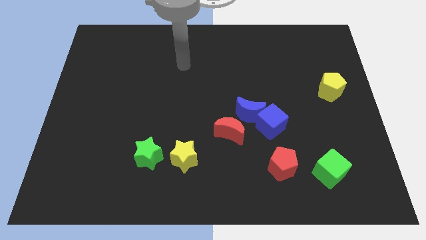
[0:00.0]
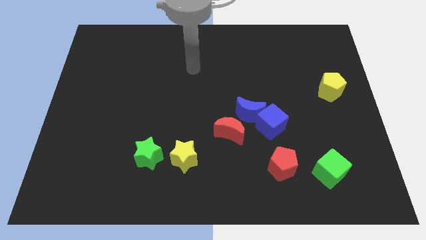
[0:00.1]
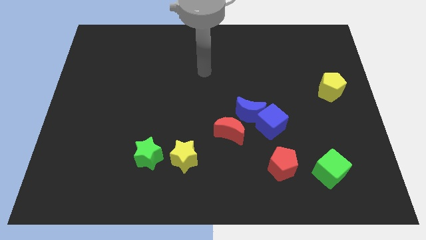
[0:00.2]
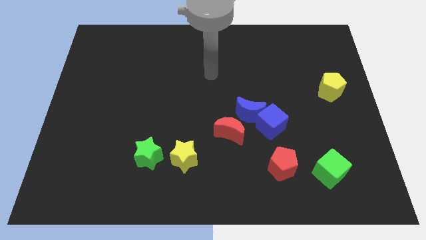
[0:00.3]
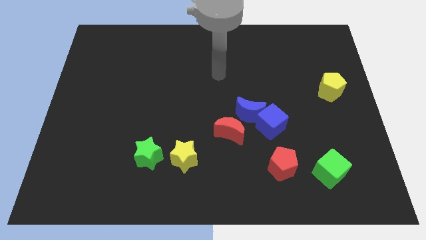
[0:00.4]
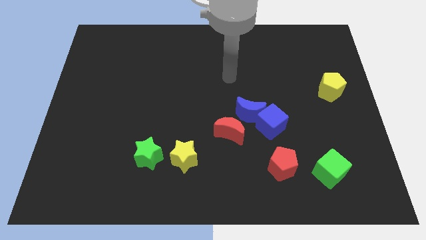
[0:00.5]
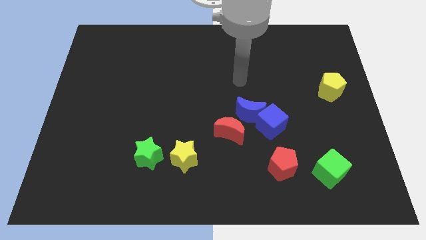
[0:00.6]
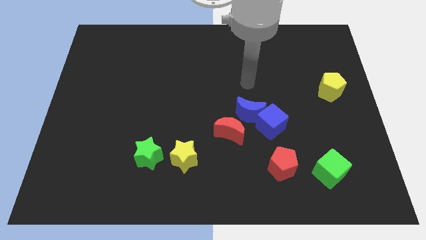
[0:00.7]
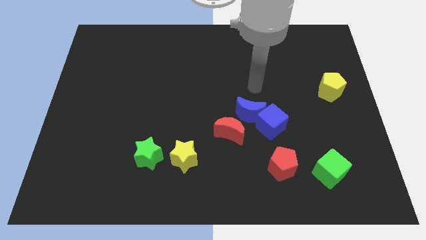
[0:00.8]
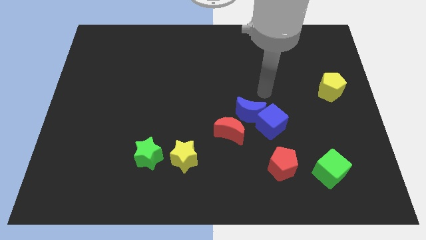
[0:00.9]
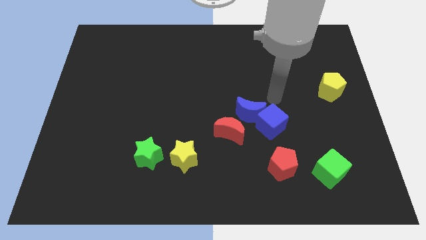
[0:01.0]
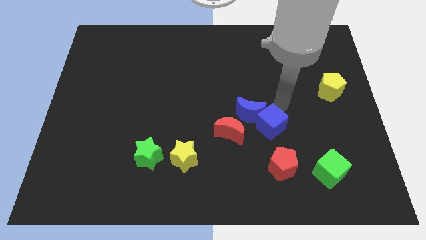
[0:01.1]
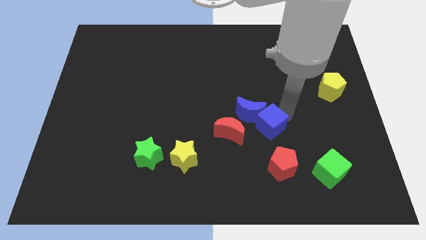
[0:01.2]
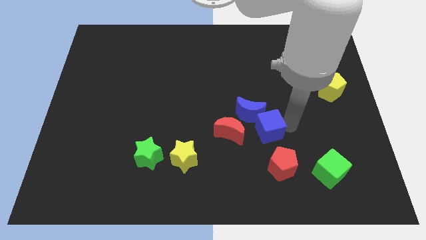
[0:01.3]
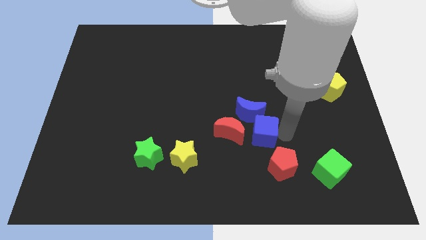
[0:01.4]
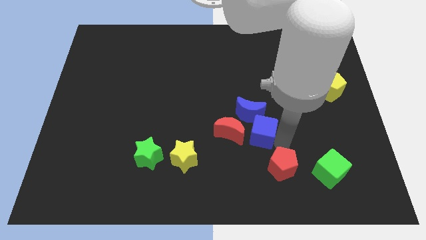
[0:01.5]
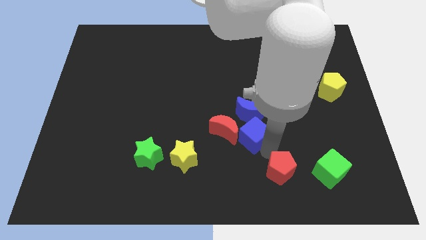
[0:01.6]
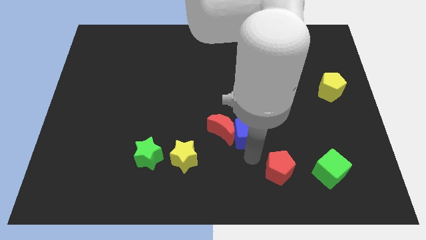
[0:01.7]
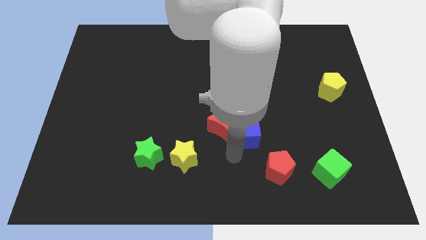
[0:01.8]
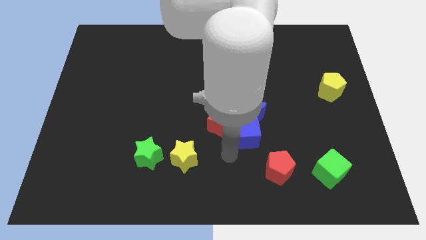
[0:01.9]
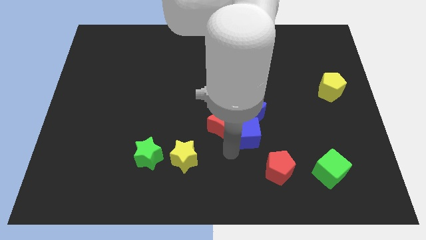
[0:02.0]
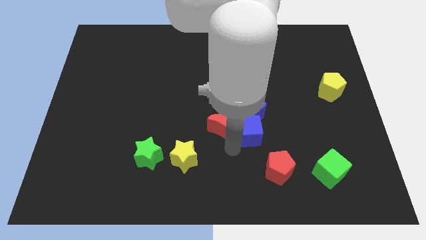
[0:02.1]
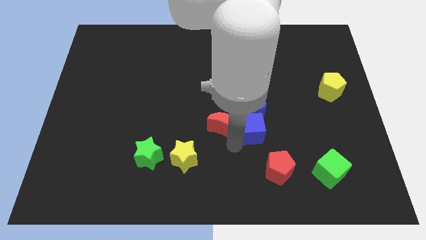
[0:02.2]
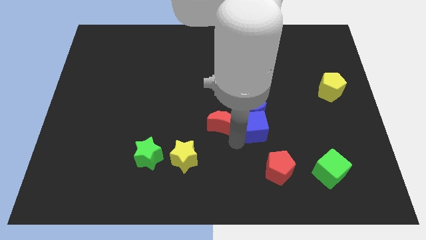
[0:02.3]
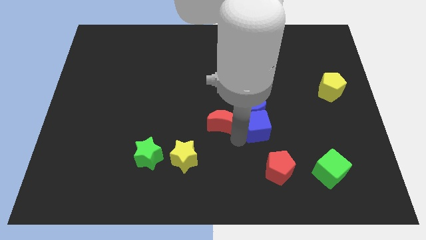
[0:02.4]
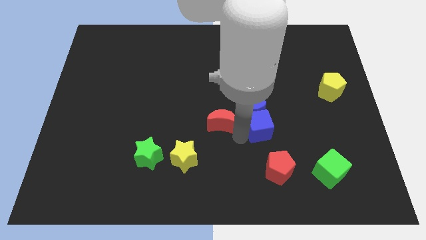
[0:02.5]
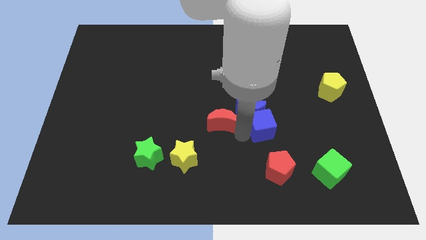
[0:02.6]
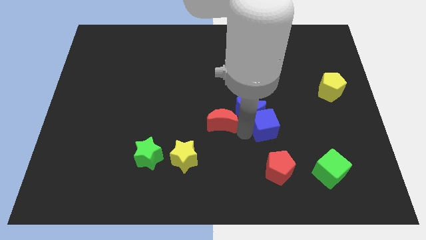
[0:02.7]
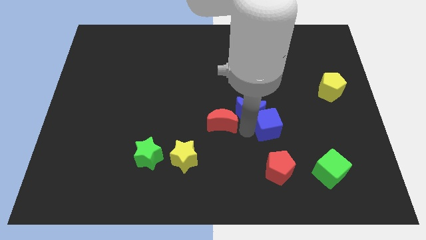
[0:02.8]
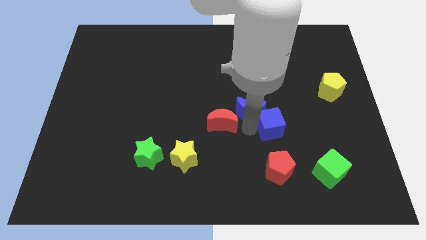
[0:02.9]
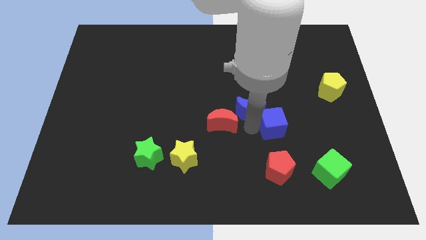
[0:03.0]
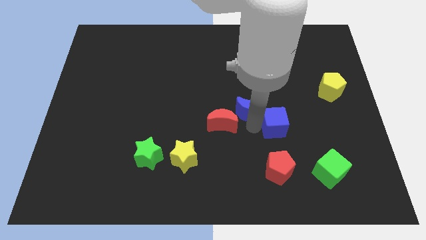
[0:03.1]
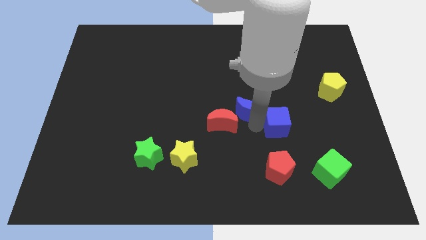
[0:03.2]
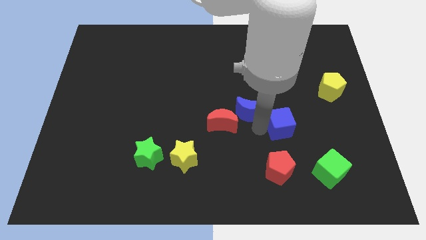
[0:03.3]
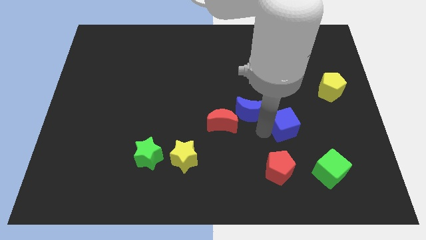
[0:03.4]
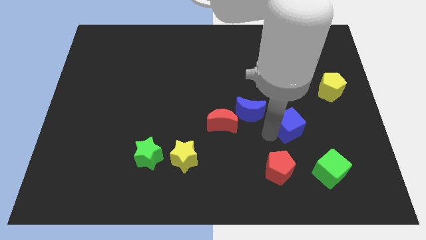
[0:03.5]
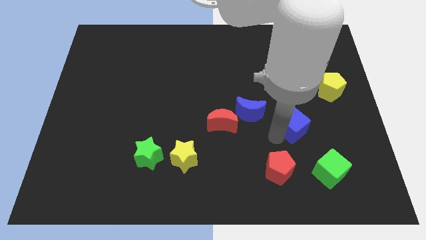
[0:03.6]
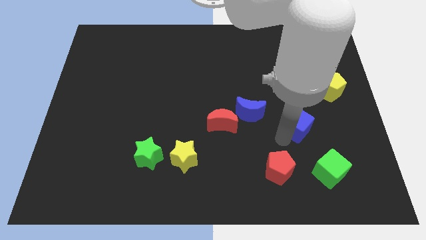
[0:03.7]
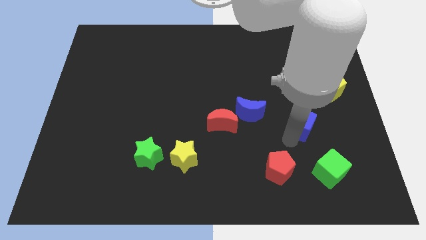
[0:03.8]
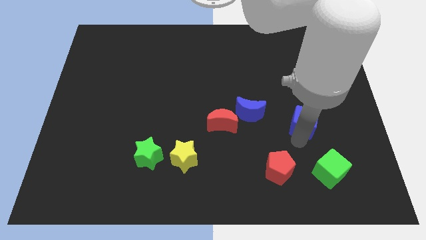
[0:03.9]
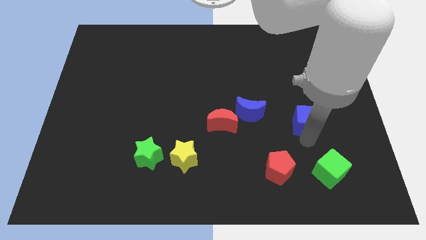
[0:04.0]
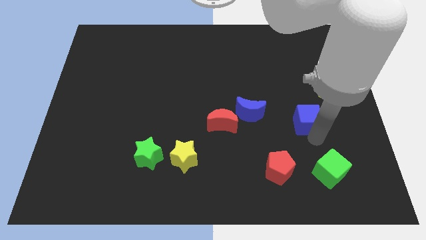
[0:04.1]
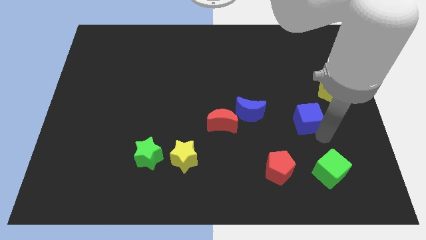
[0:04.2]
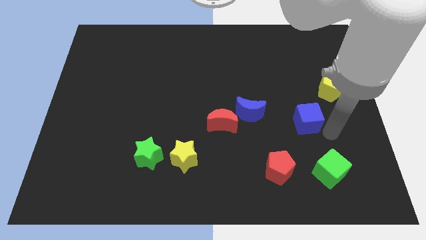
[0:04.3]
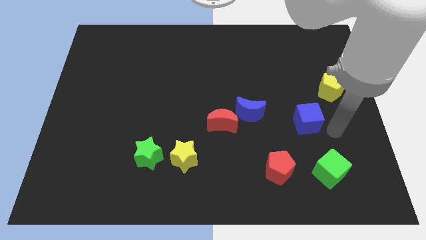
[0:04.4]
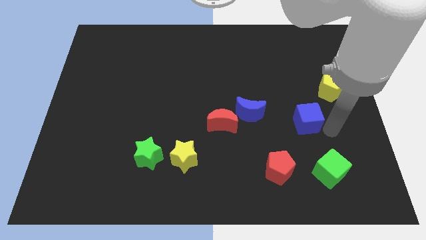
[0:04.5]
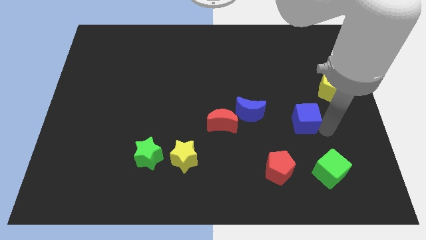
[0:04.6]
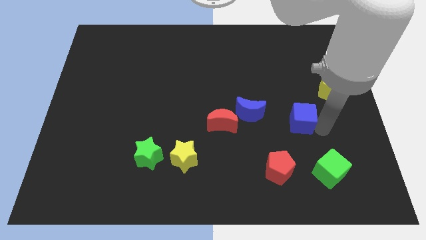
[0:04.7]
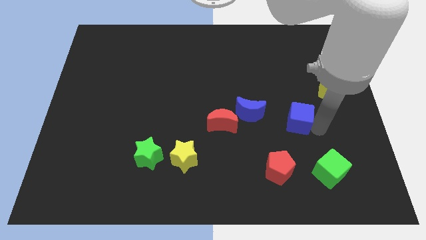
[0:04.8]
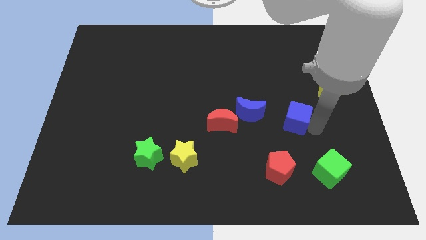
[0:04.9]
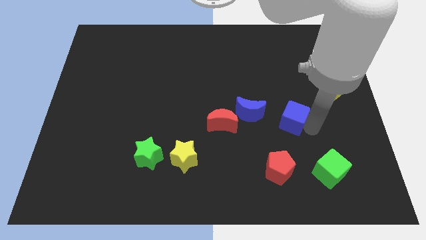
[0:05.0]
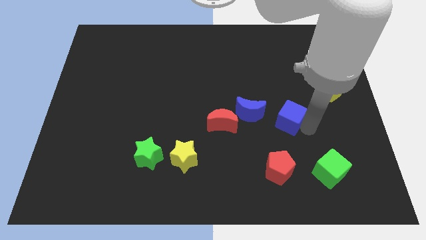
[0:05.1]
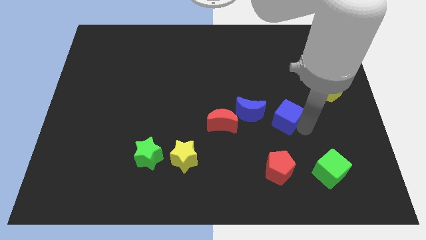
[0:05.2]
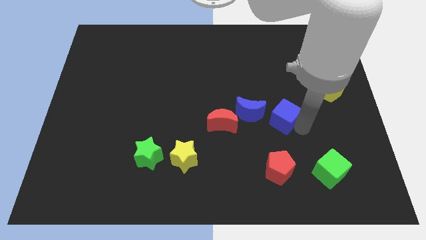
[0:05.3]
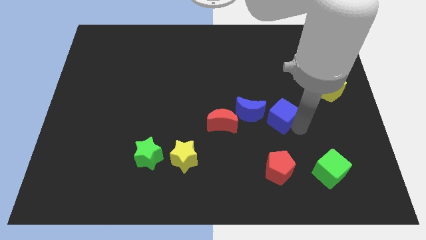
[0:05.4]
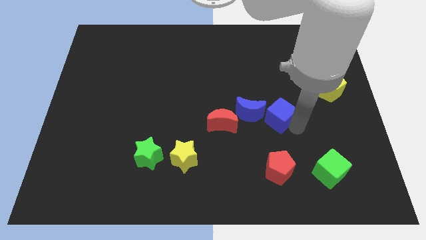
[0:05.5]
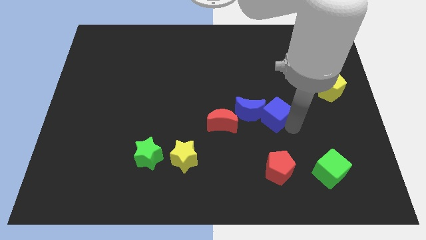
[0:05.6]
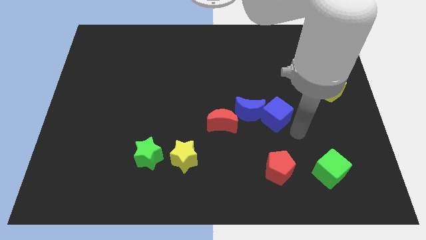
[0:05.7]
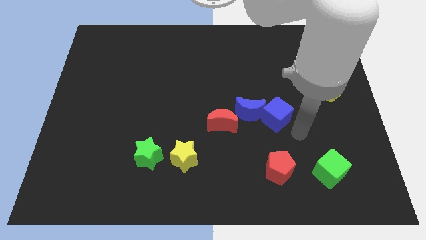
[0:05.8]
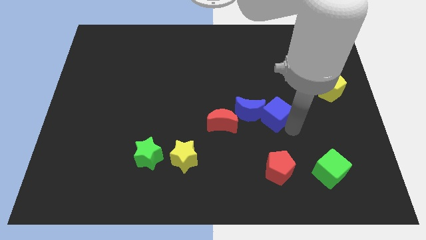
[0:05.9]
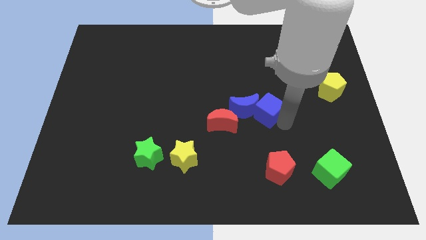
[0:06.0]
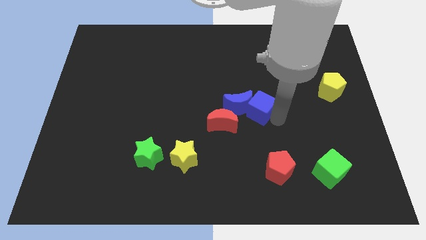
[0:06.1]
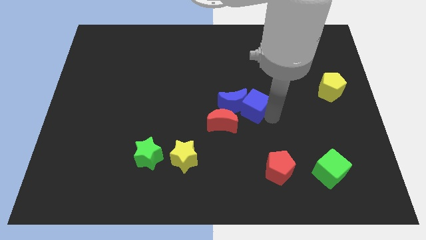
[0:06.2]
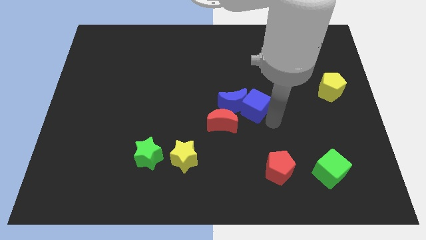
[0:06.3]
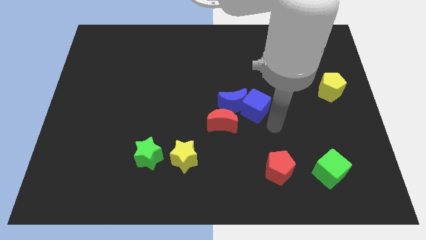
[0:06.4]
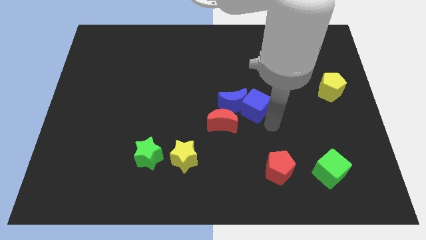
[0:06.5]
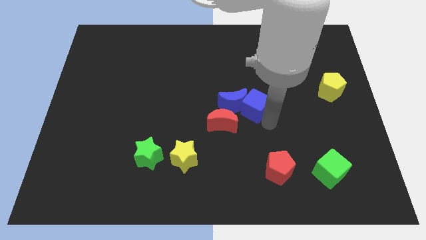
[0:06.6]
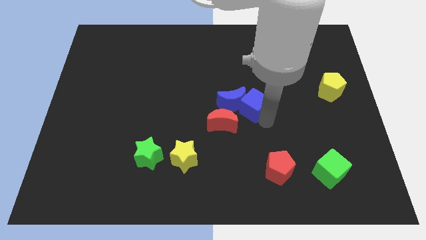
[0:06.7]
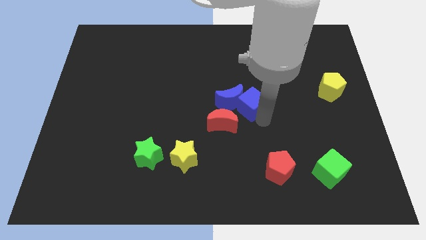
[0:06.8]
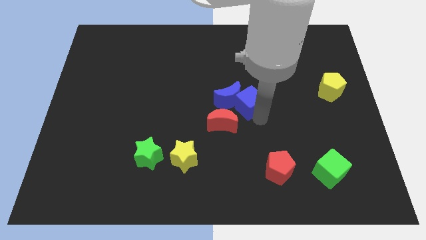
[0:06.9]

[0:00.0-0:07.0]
push the blue cube diagonally upwards and left a little bit

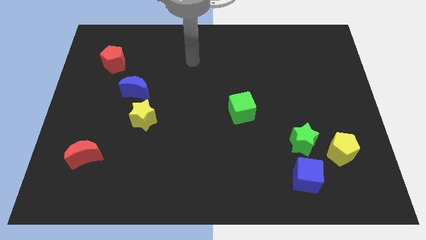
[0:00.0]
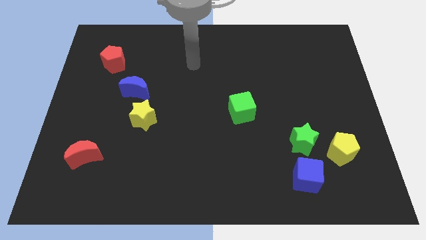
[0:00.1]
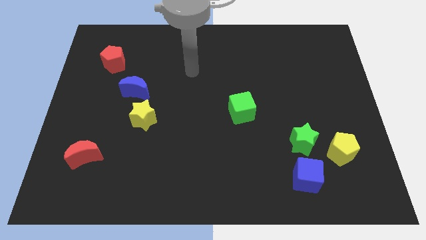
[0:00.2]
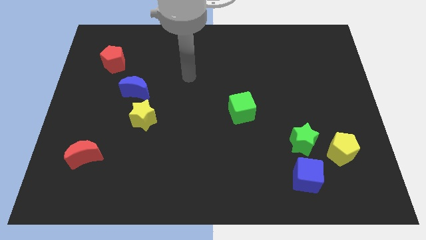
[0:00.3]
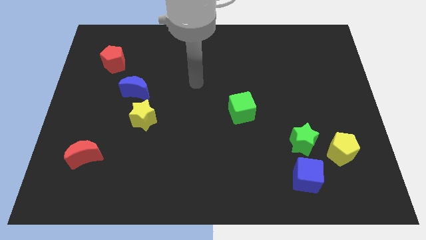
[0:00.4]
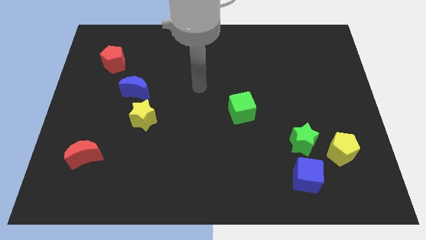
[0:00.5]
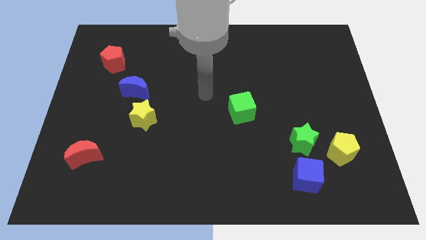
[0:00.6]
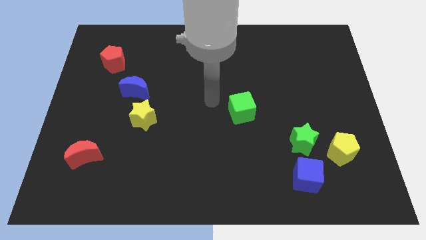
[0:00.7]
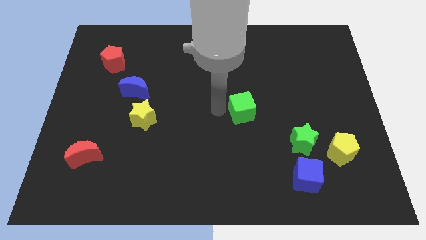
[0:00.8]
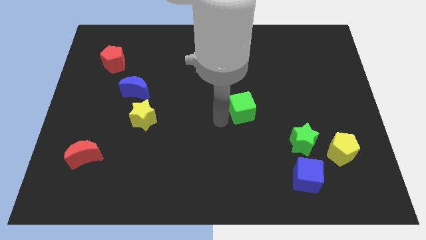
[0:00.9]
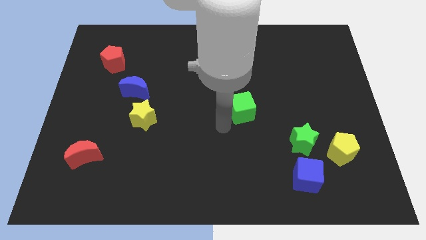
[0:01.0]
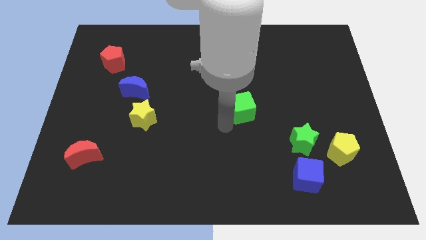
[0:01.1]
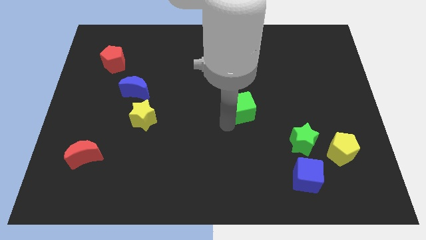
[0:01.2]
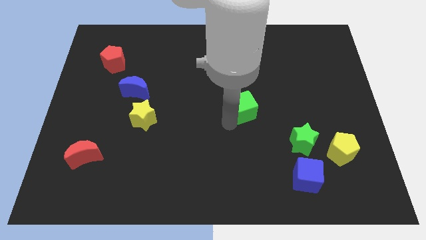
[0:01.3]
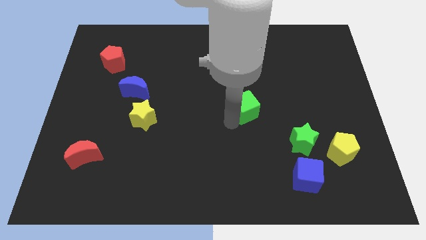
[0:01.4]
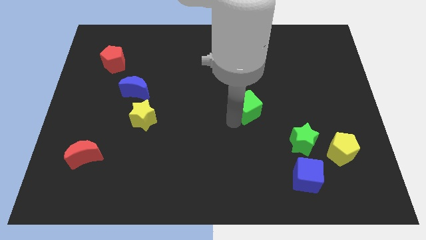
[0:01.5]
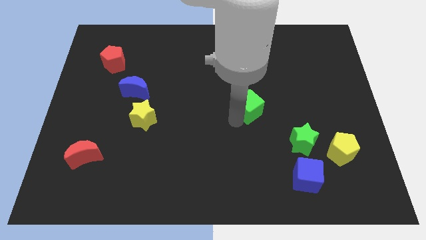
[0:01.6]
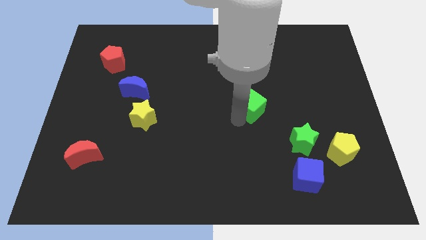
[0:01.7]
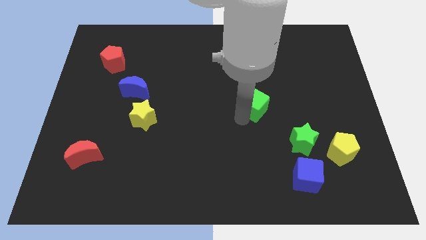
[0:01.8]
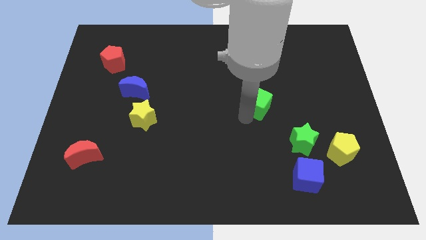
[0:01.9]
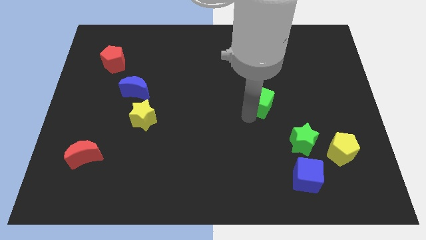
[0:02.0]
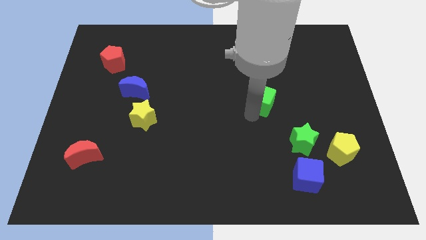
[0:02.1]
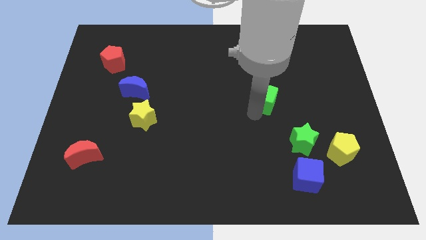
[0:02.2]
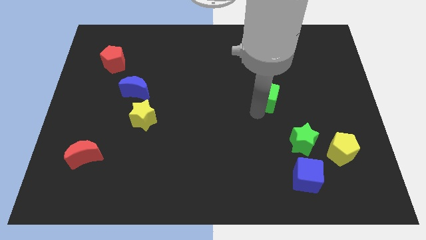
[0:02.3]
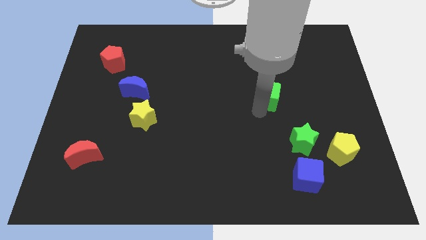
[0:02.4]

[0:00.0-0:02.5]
push the green cube upwards and to the right a bit
